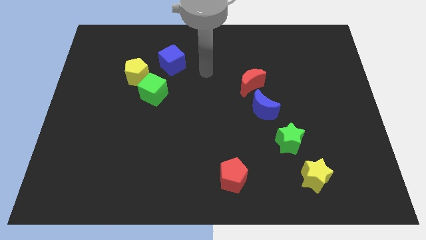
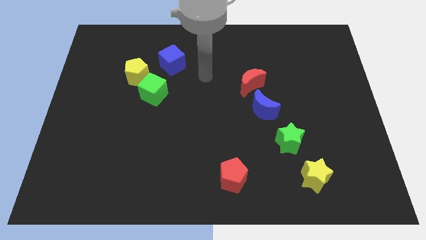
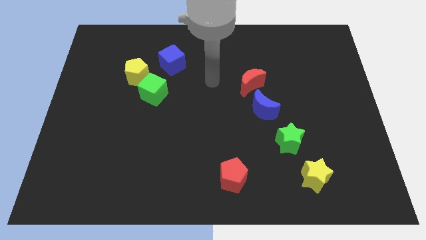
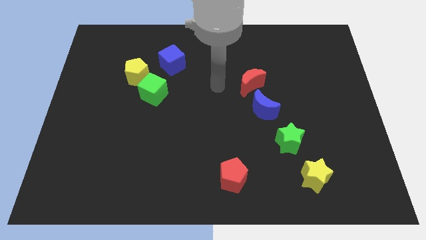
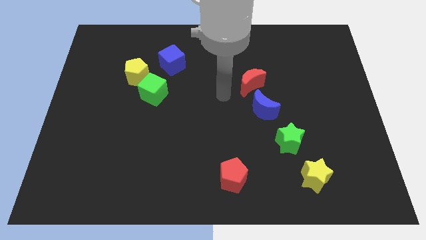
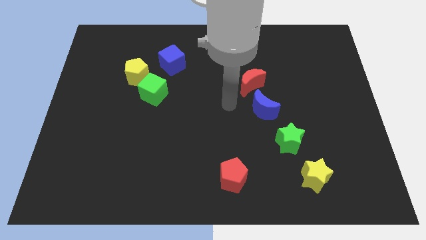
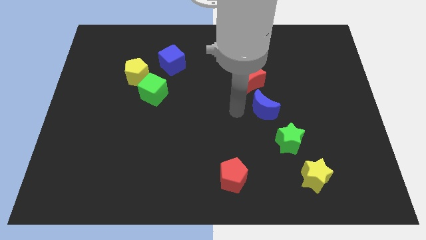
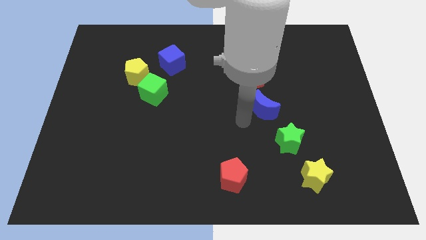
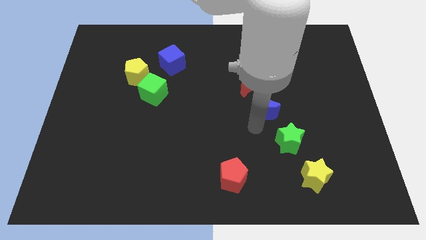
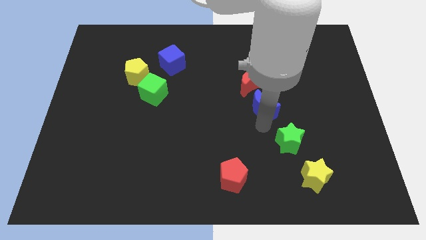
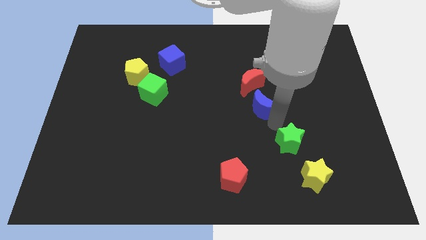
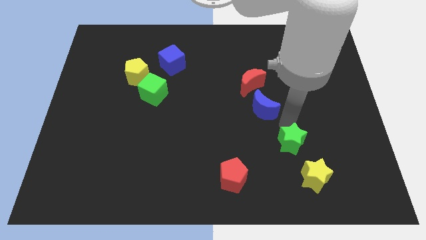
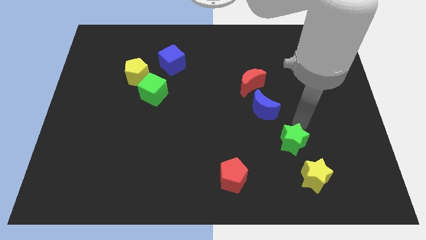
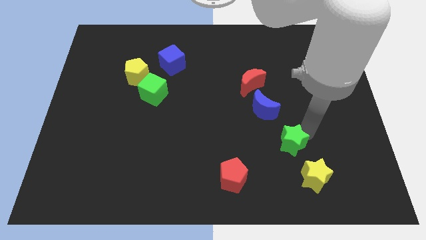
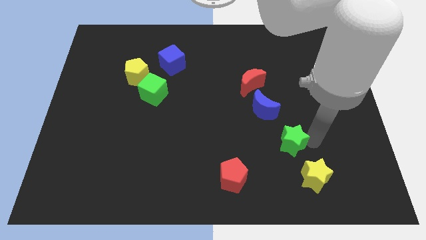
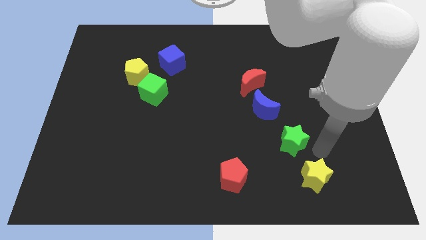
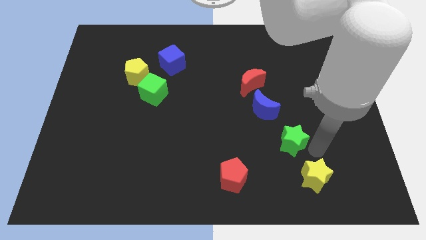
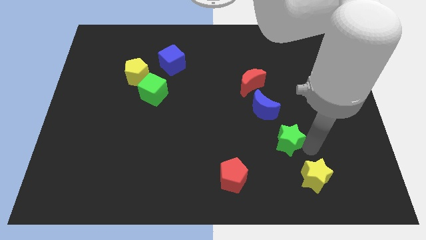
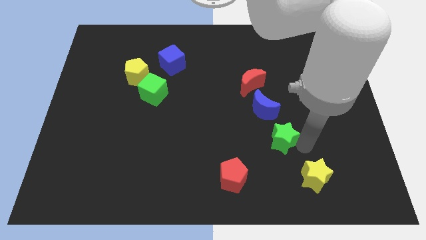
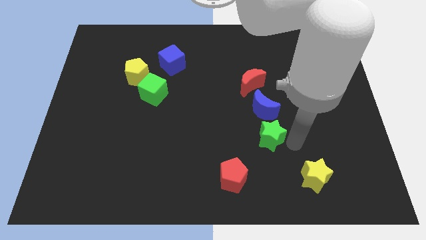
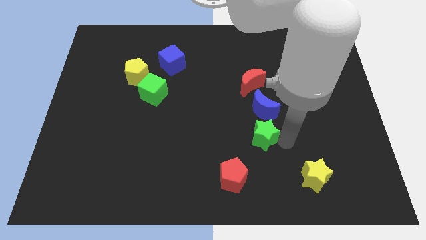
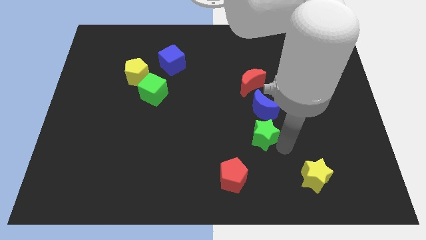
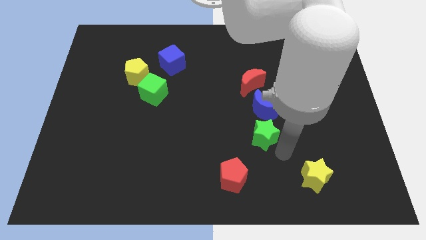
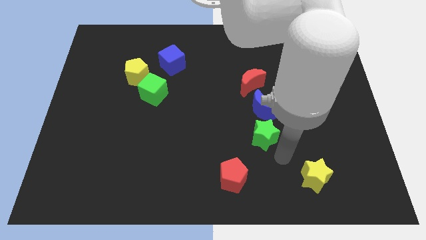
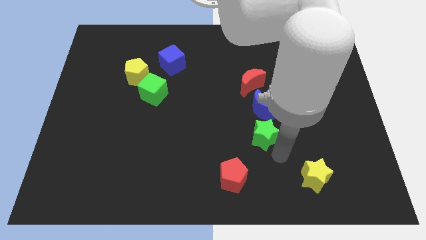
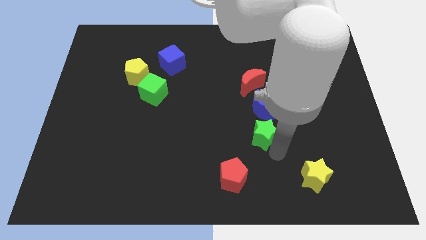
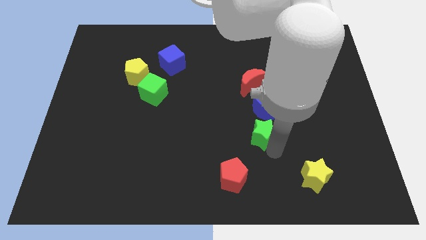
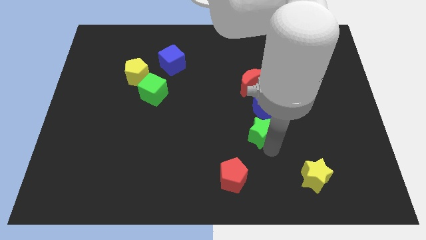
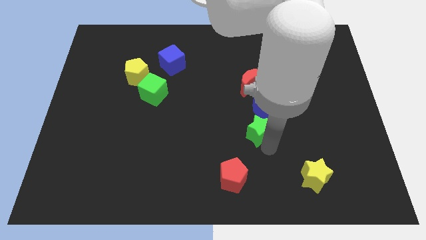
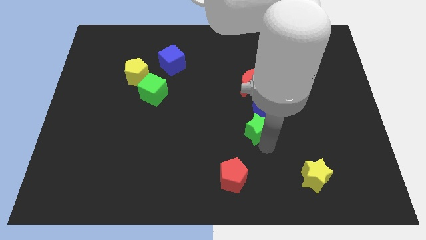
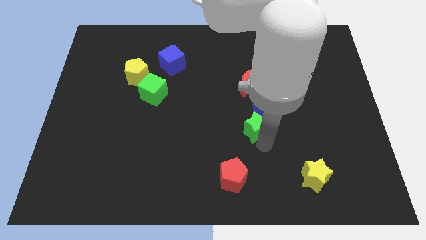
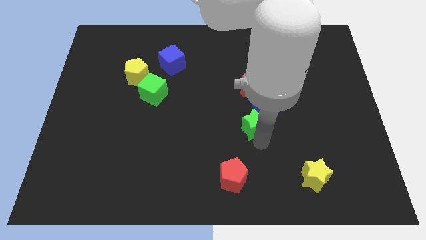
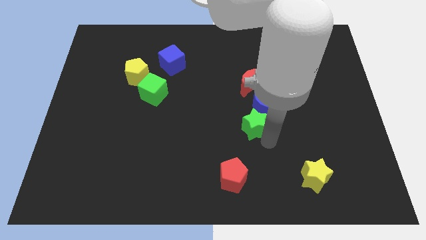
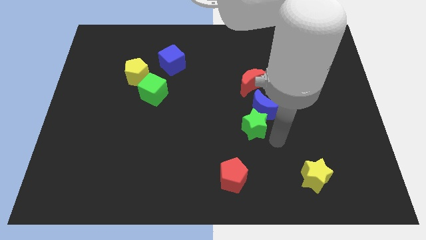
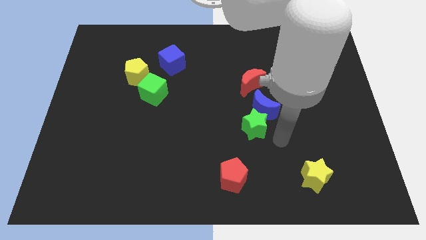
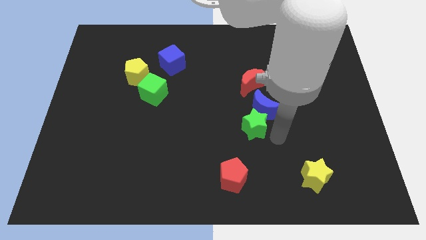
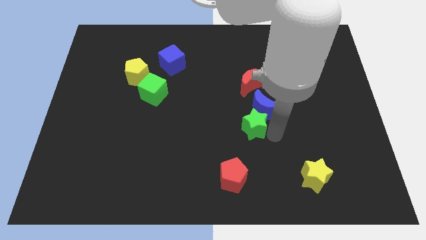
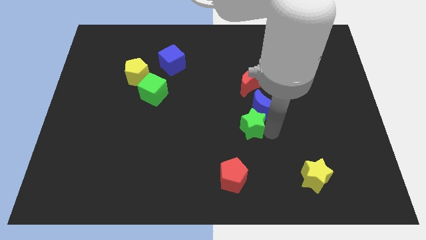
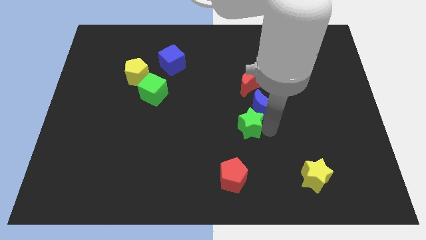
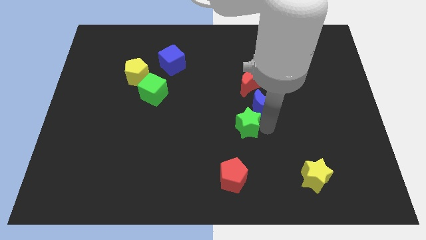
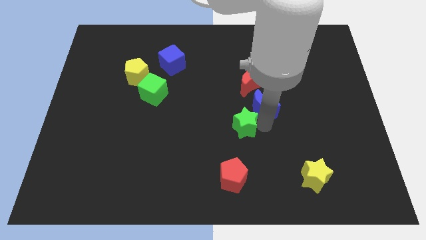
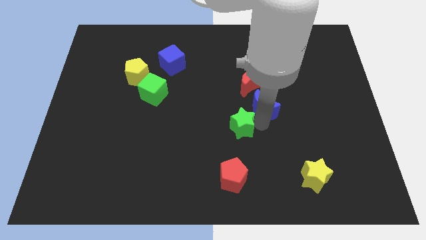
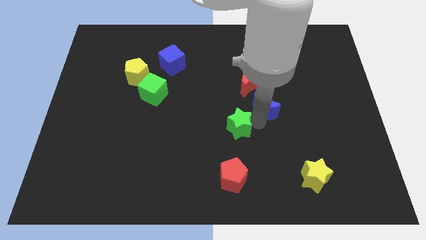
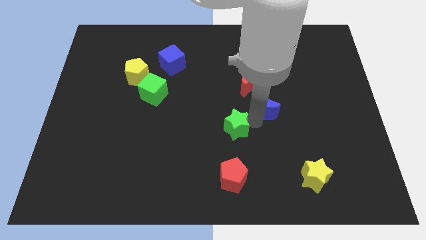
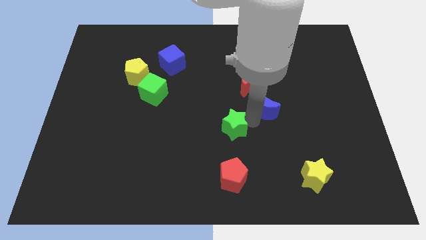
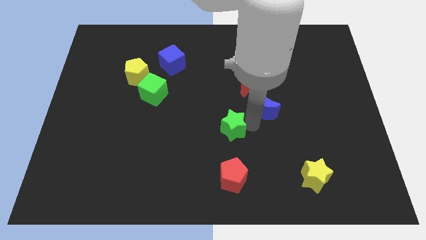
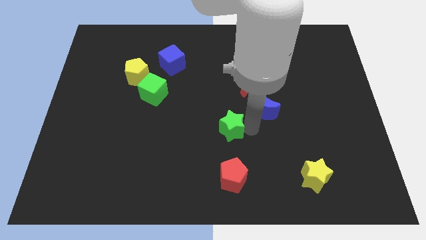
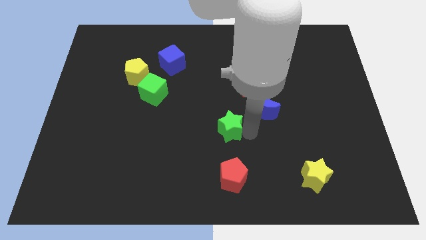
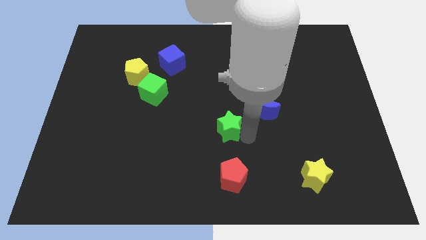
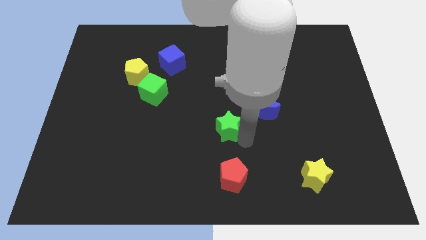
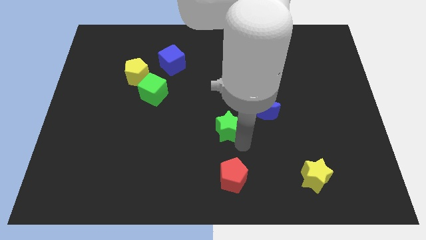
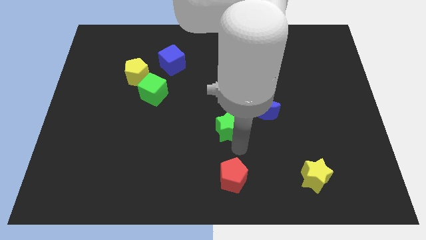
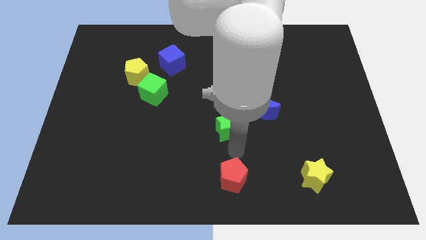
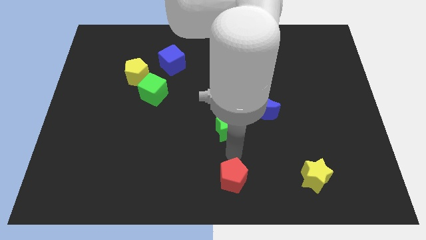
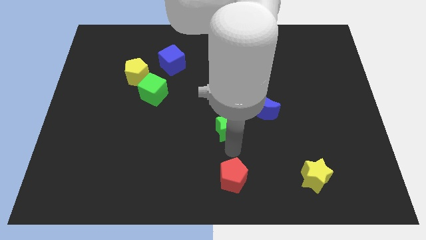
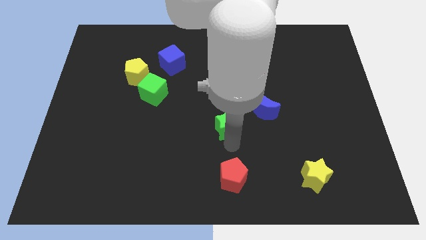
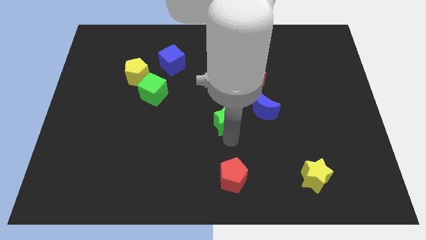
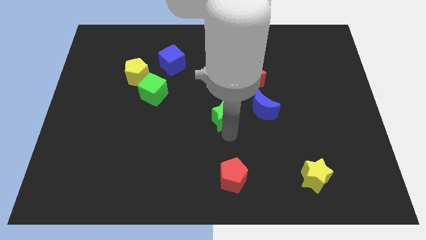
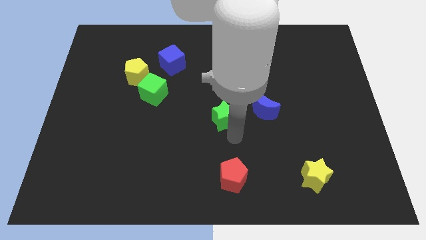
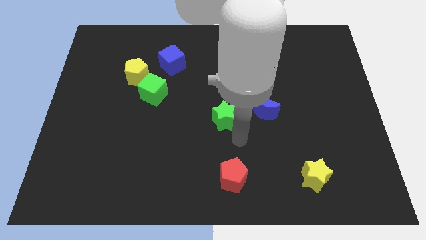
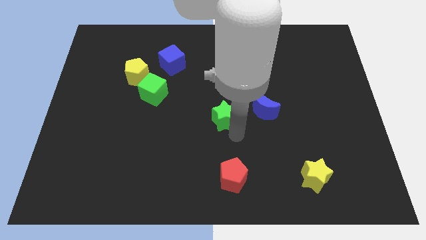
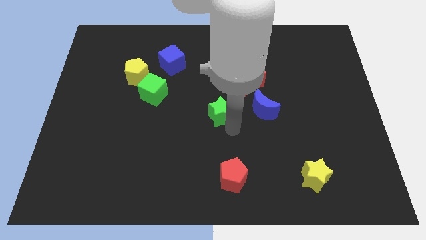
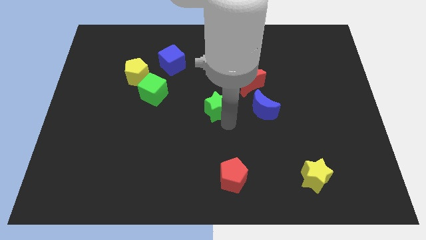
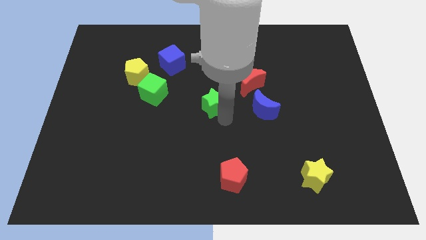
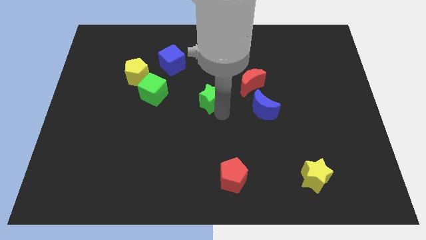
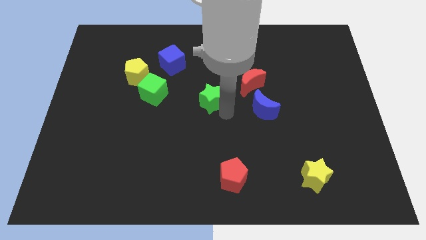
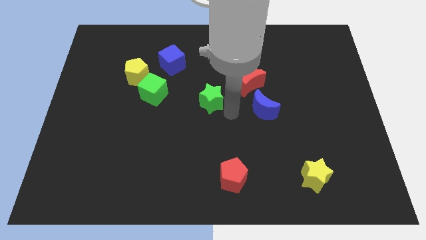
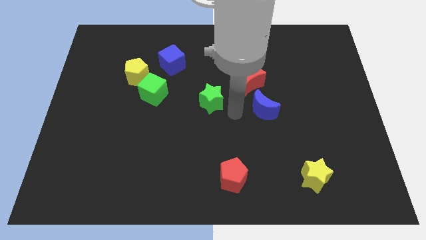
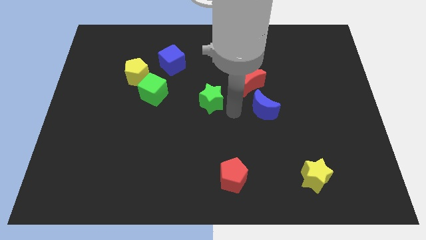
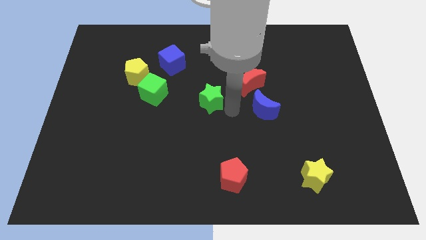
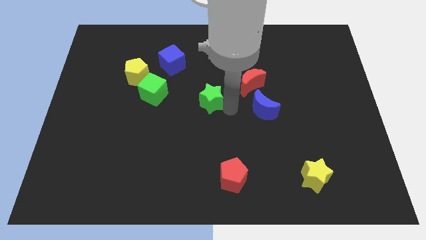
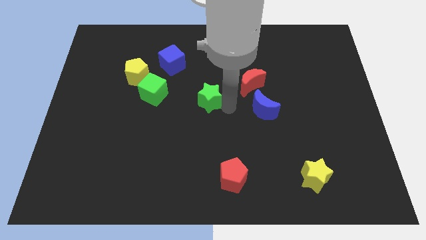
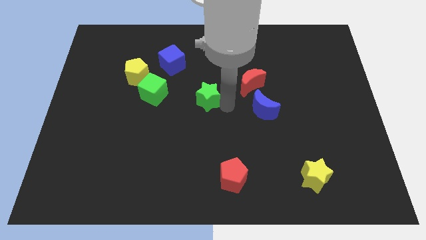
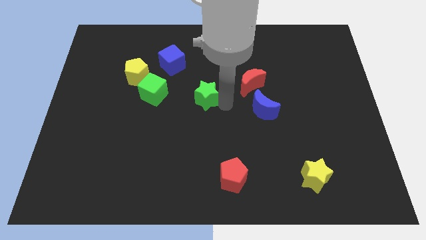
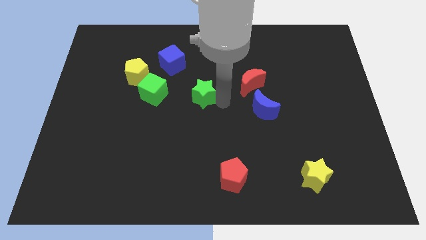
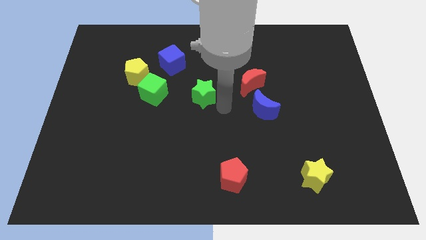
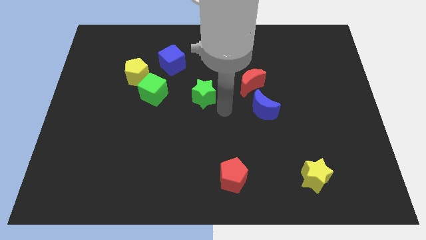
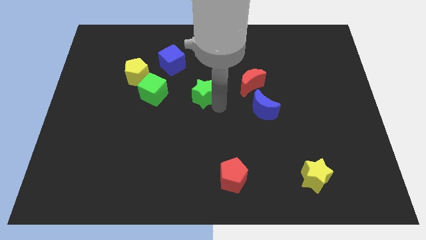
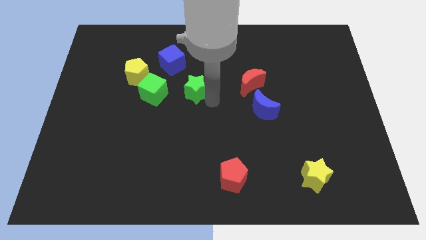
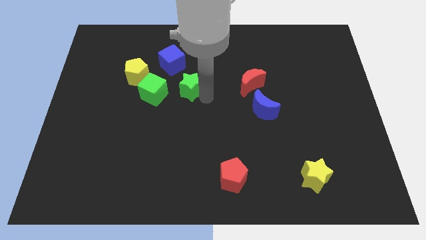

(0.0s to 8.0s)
slide the green star right of the yellow pentagon
